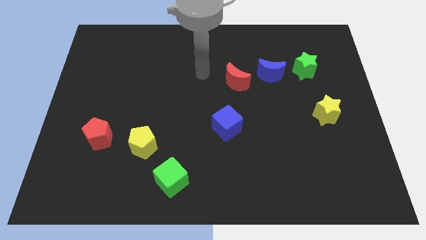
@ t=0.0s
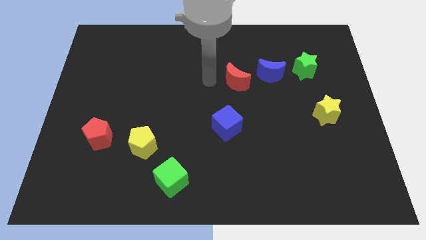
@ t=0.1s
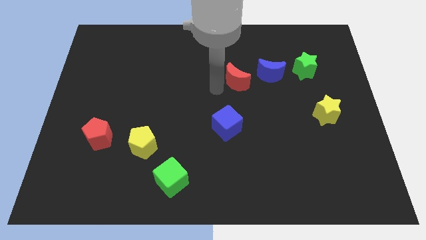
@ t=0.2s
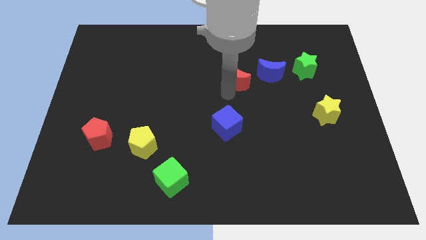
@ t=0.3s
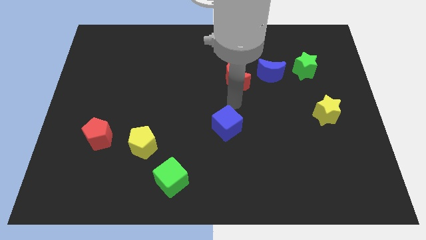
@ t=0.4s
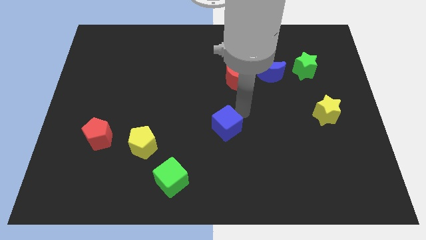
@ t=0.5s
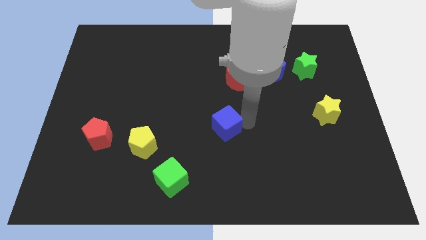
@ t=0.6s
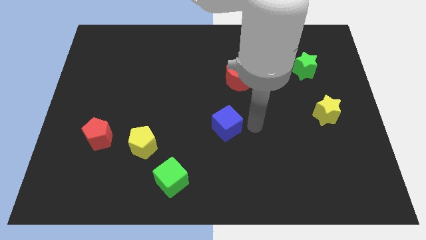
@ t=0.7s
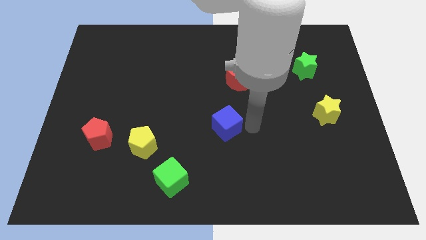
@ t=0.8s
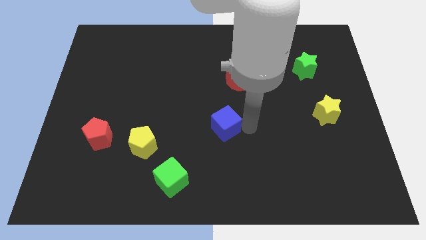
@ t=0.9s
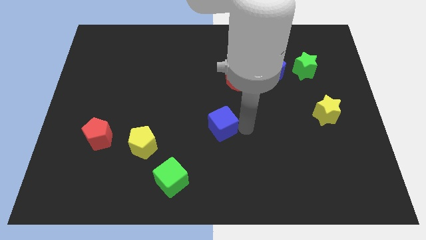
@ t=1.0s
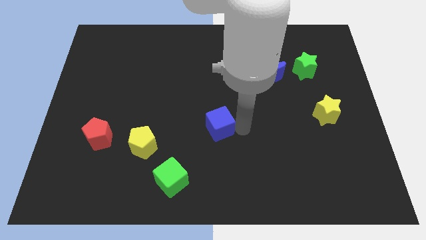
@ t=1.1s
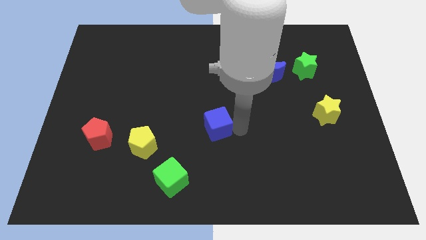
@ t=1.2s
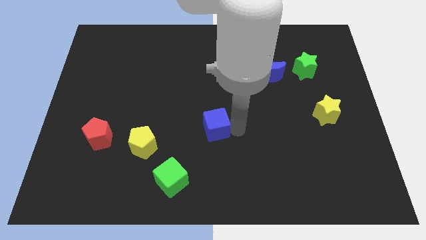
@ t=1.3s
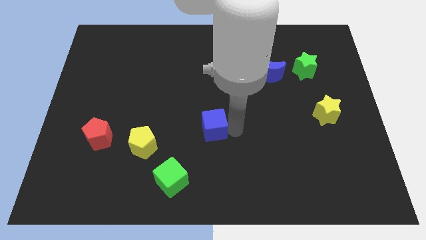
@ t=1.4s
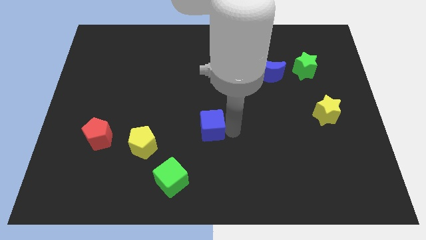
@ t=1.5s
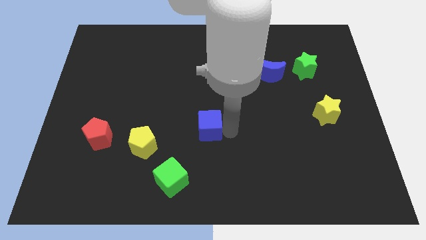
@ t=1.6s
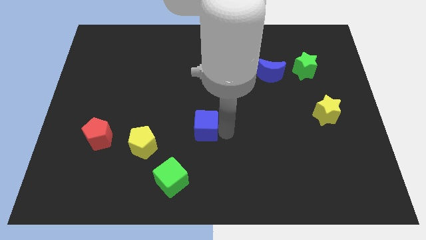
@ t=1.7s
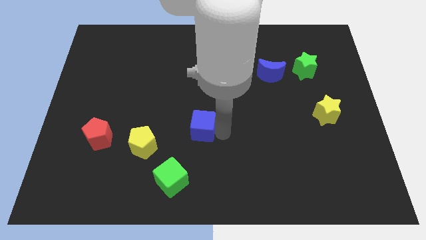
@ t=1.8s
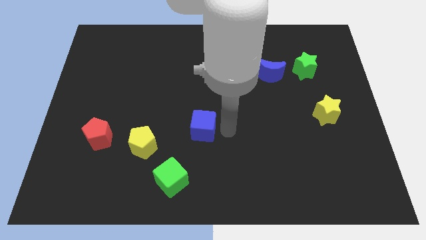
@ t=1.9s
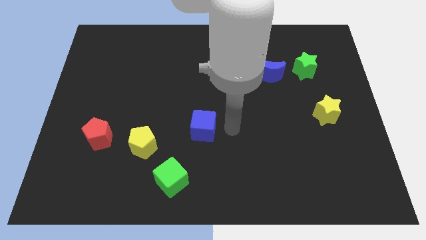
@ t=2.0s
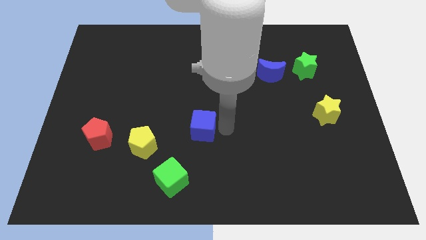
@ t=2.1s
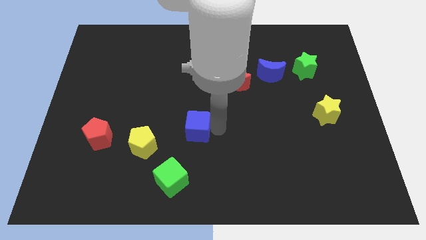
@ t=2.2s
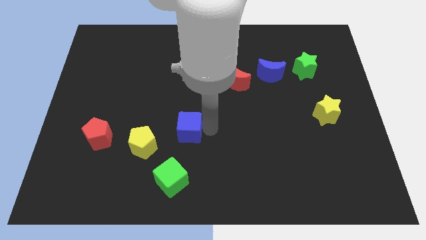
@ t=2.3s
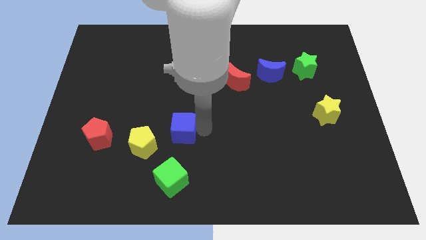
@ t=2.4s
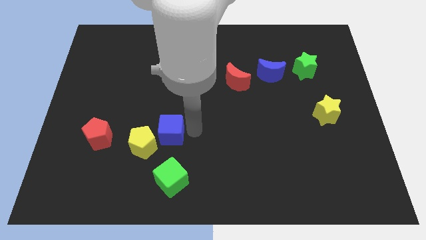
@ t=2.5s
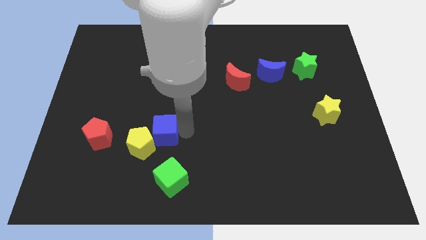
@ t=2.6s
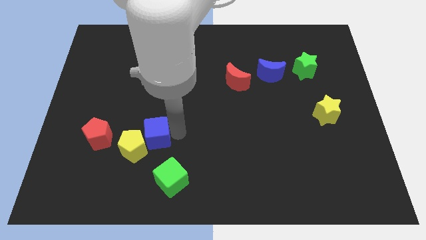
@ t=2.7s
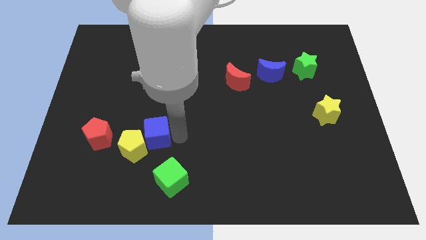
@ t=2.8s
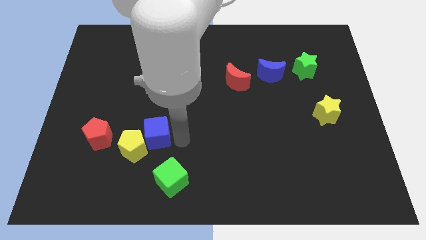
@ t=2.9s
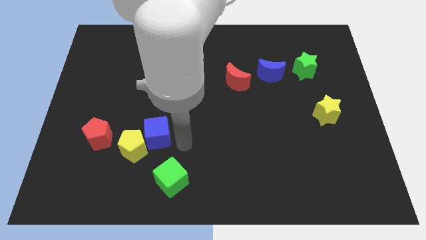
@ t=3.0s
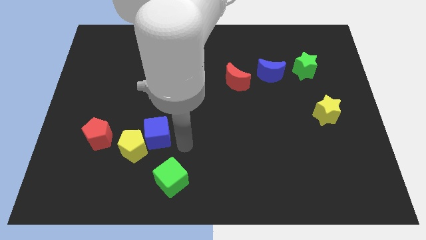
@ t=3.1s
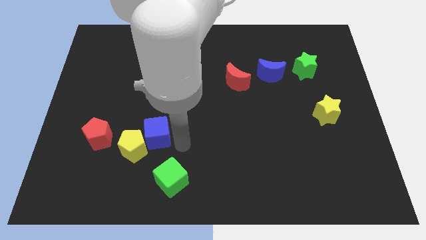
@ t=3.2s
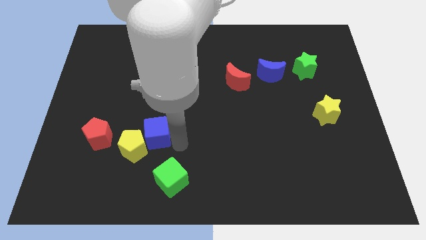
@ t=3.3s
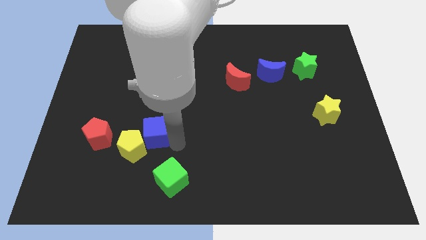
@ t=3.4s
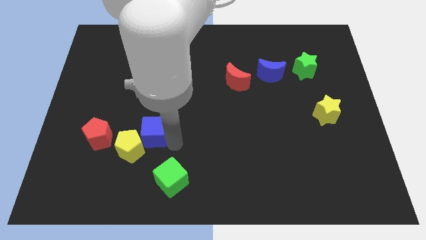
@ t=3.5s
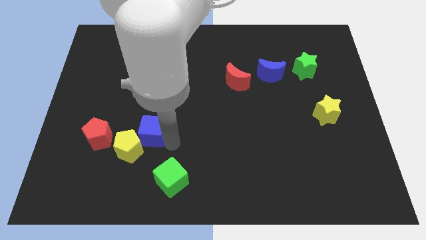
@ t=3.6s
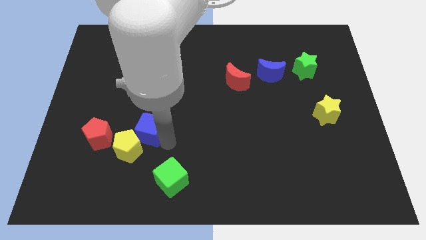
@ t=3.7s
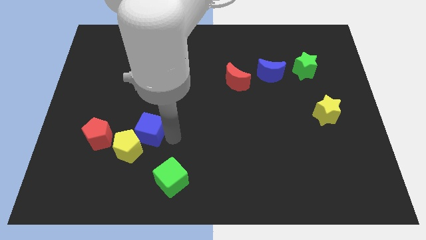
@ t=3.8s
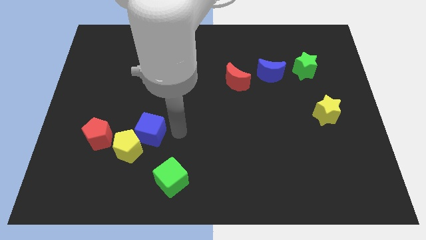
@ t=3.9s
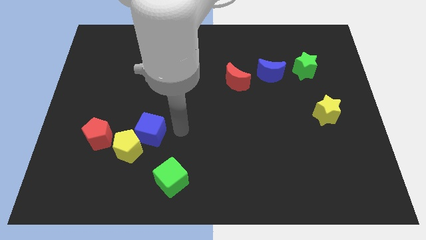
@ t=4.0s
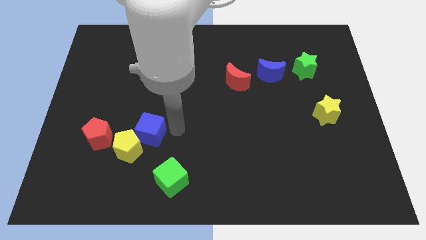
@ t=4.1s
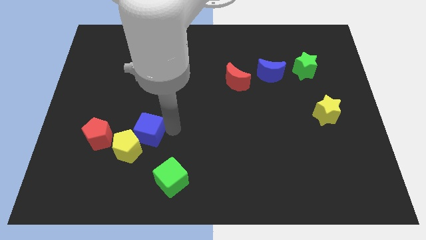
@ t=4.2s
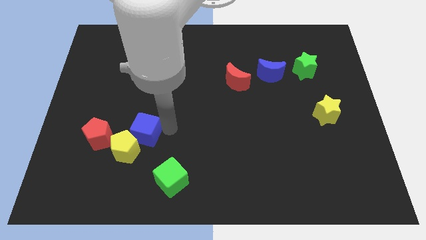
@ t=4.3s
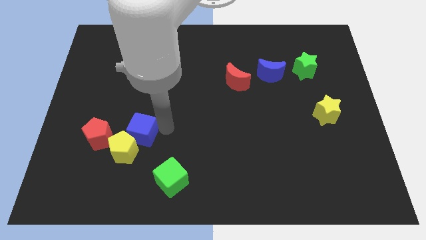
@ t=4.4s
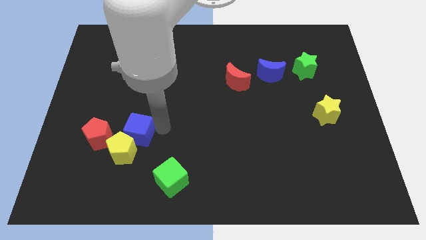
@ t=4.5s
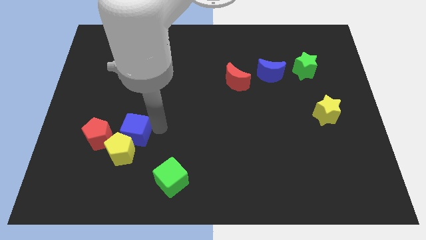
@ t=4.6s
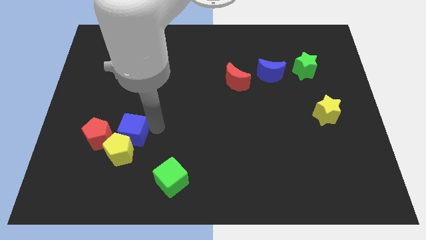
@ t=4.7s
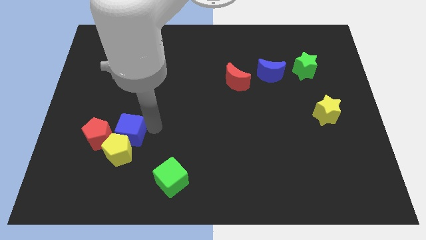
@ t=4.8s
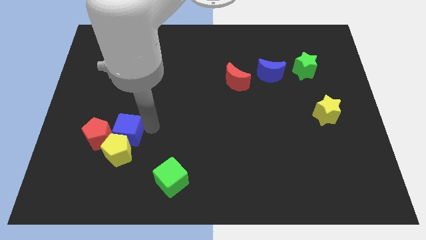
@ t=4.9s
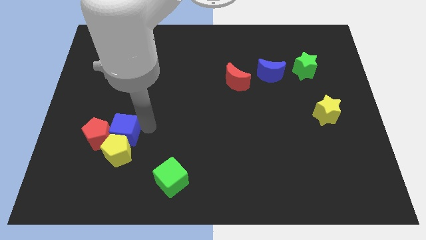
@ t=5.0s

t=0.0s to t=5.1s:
move the blue cube close to the red pentagon

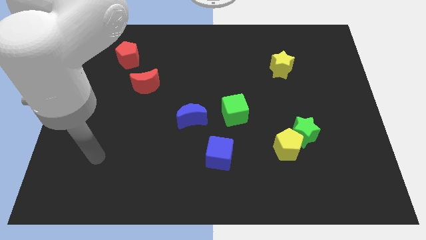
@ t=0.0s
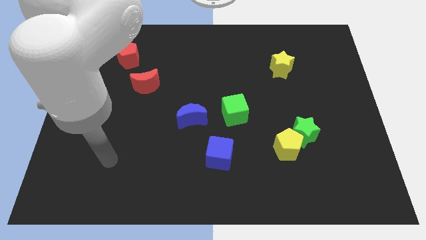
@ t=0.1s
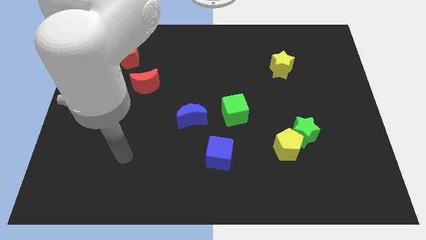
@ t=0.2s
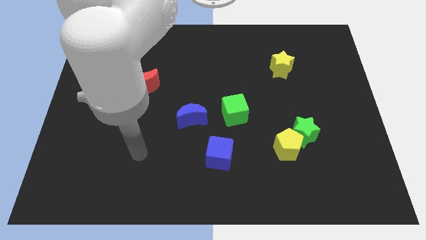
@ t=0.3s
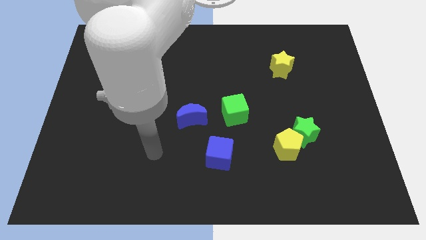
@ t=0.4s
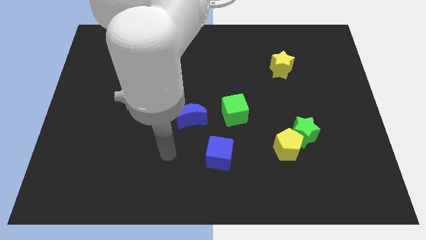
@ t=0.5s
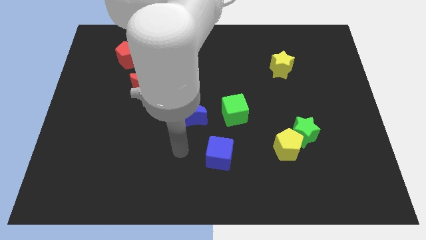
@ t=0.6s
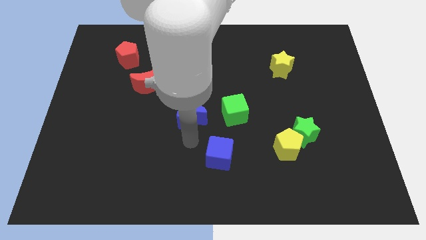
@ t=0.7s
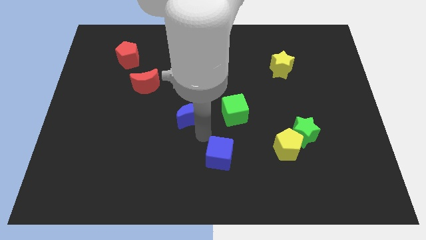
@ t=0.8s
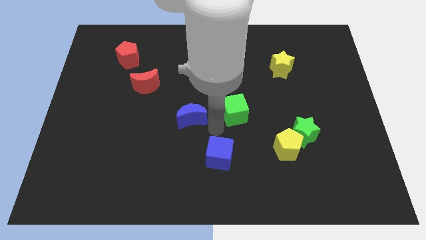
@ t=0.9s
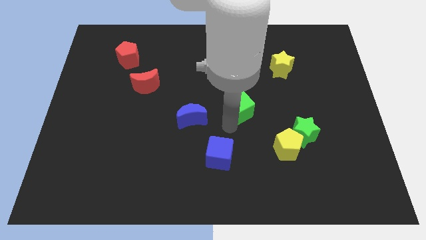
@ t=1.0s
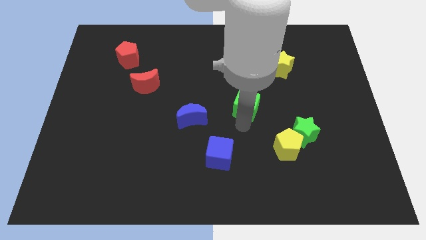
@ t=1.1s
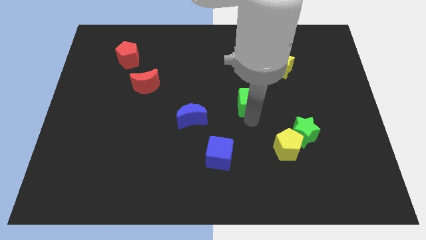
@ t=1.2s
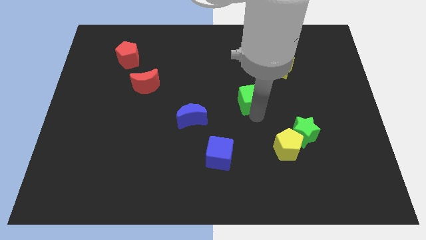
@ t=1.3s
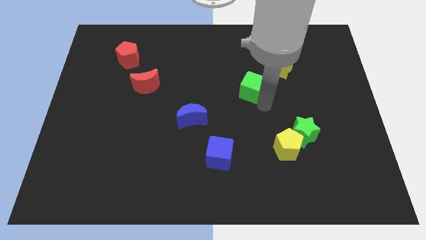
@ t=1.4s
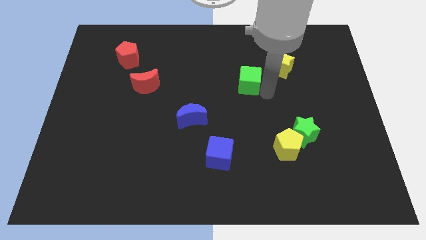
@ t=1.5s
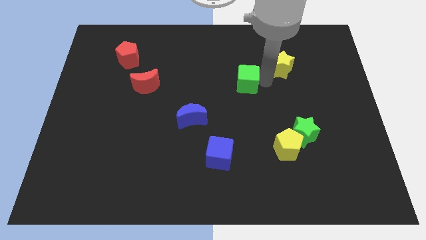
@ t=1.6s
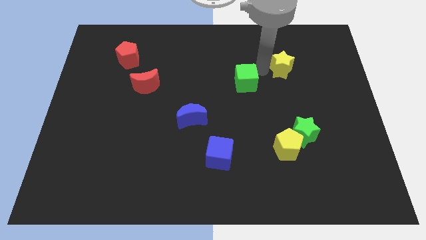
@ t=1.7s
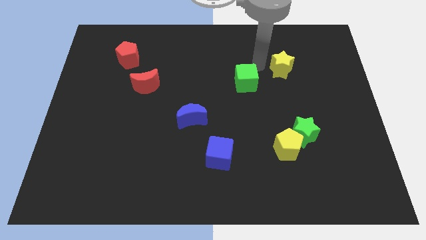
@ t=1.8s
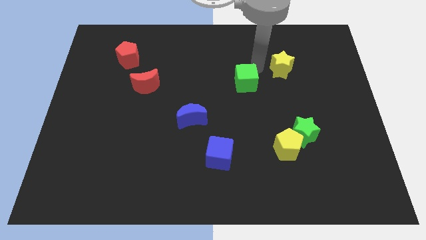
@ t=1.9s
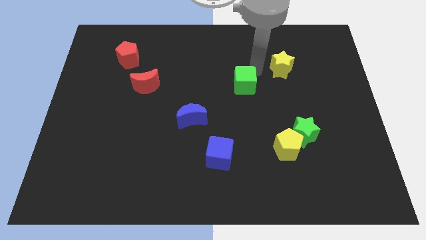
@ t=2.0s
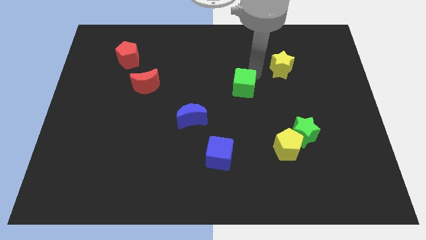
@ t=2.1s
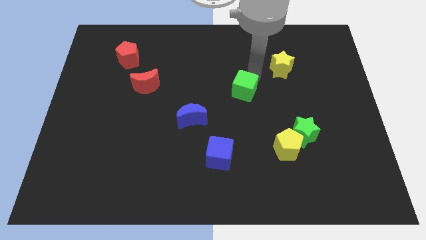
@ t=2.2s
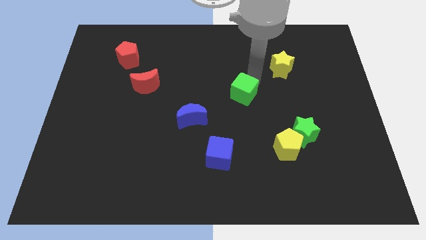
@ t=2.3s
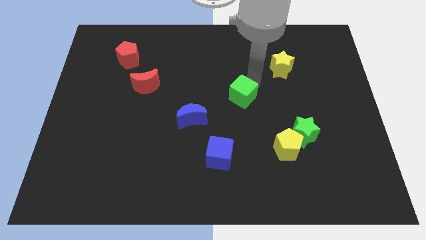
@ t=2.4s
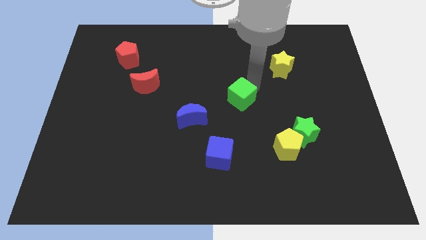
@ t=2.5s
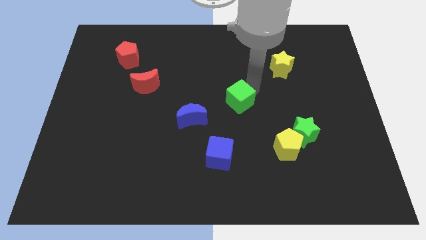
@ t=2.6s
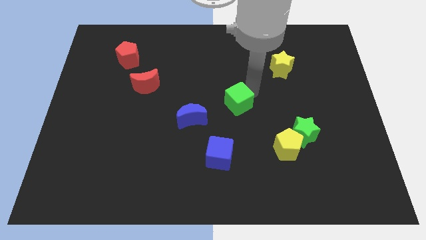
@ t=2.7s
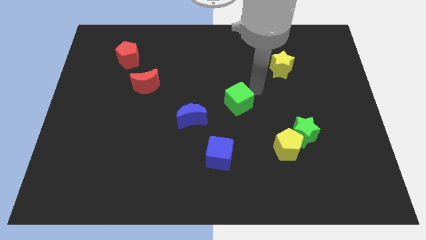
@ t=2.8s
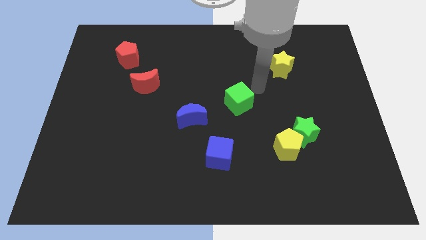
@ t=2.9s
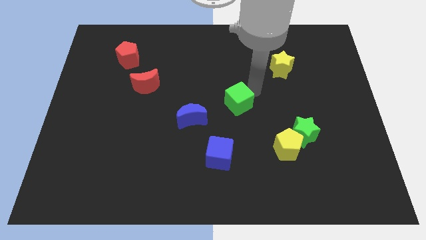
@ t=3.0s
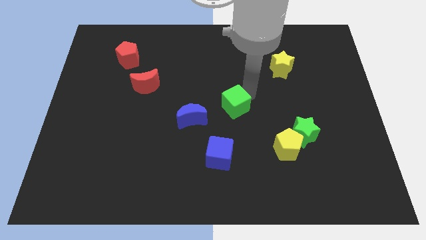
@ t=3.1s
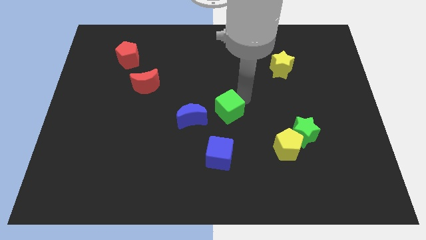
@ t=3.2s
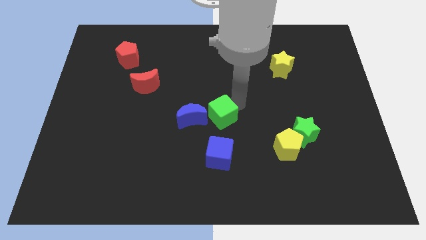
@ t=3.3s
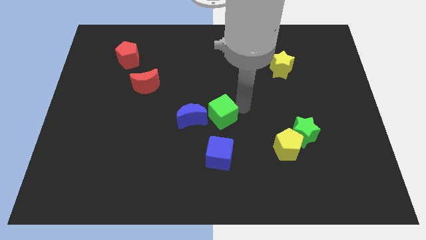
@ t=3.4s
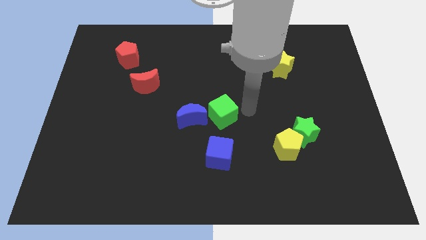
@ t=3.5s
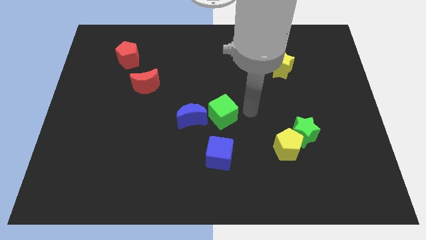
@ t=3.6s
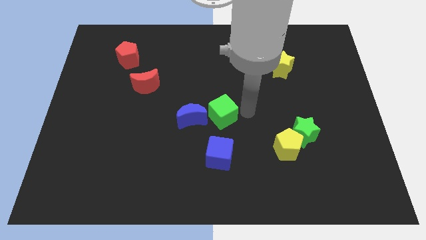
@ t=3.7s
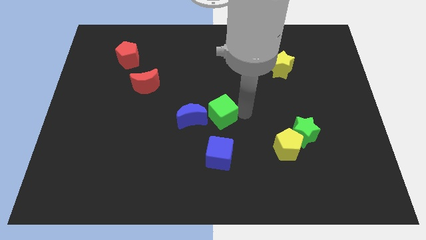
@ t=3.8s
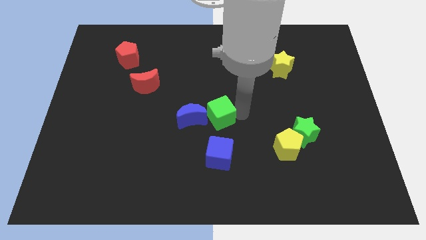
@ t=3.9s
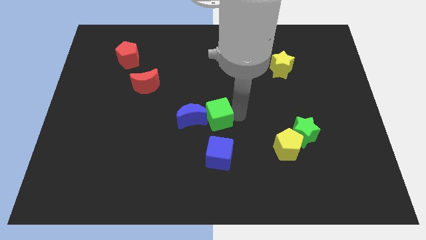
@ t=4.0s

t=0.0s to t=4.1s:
push the green cube close to the blue moon
